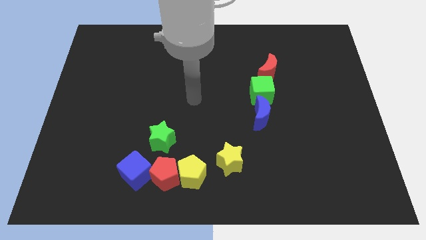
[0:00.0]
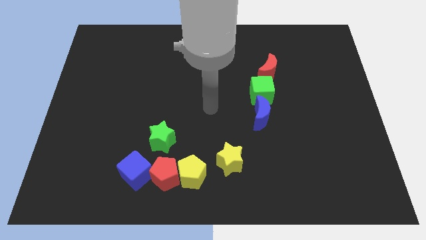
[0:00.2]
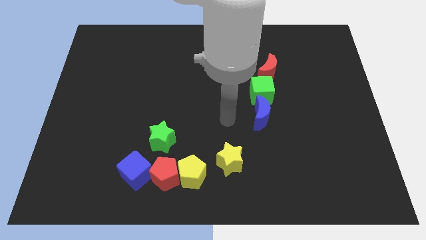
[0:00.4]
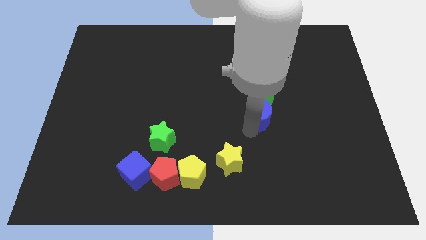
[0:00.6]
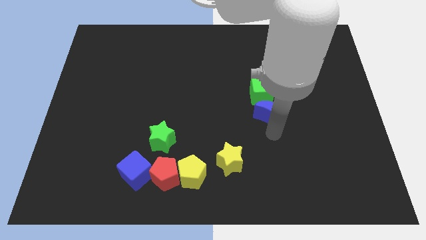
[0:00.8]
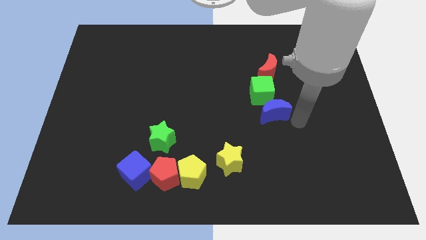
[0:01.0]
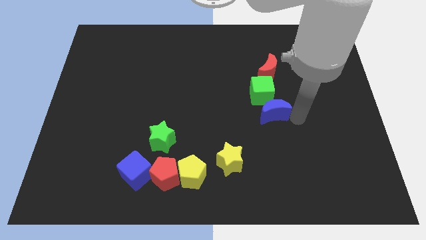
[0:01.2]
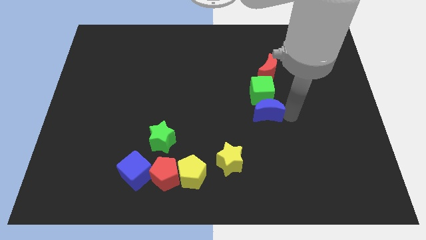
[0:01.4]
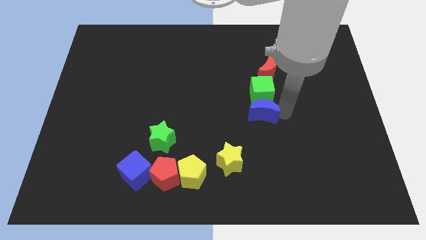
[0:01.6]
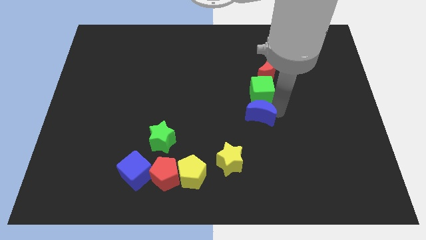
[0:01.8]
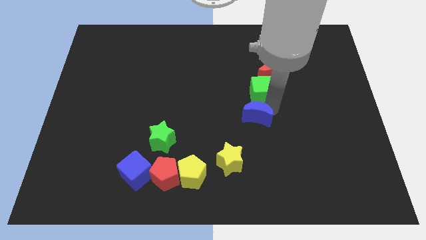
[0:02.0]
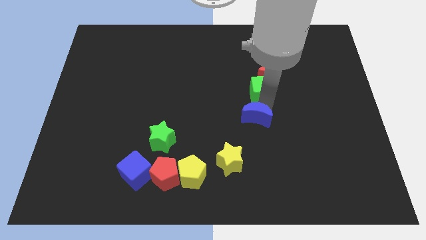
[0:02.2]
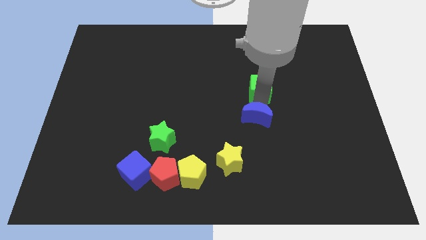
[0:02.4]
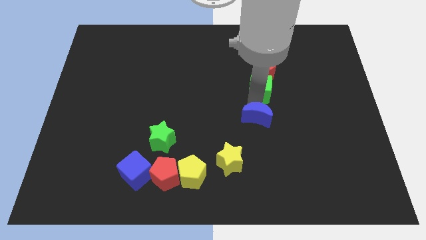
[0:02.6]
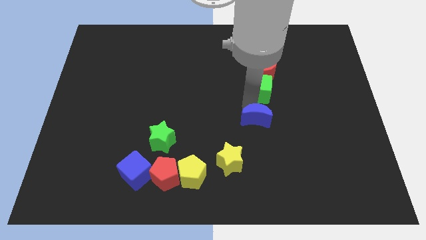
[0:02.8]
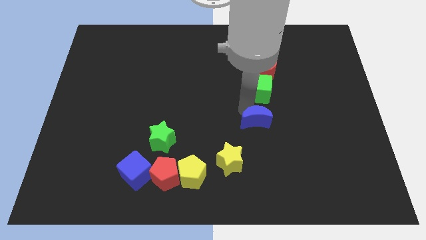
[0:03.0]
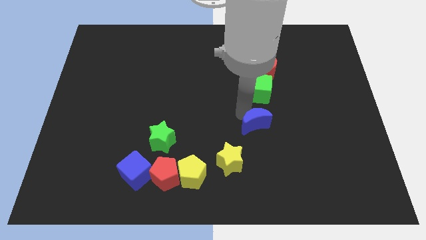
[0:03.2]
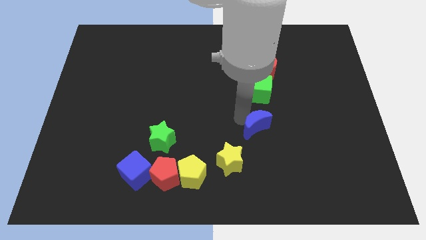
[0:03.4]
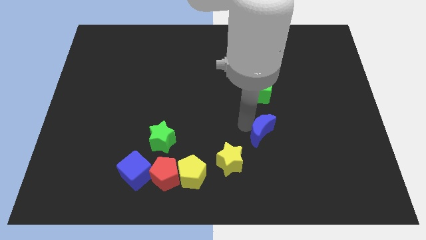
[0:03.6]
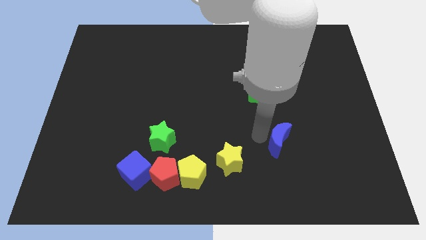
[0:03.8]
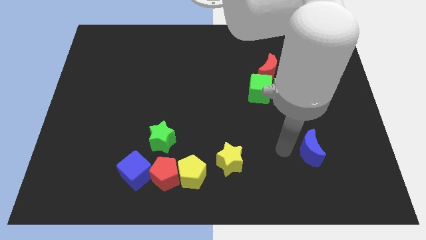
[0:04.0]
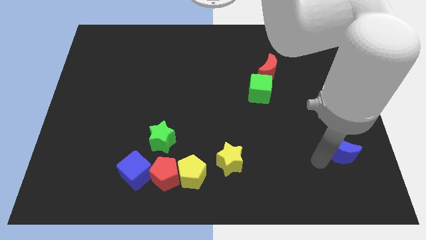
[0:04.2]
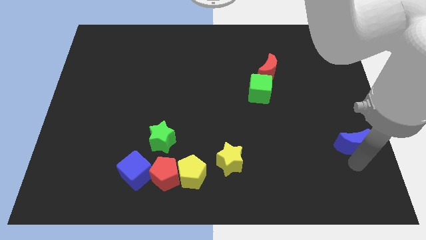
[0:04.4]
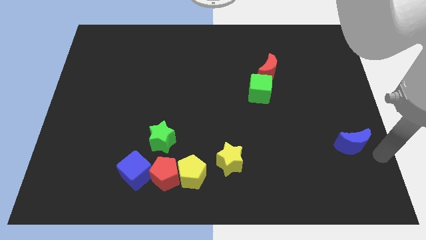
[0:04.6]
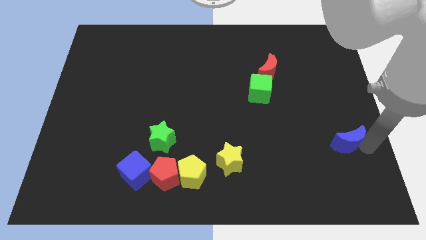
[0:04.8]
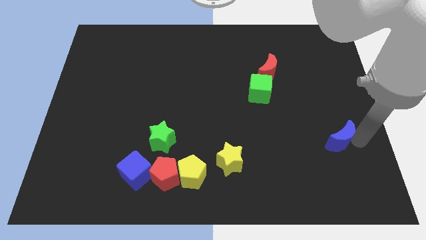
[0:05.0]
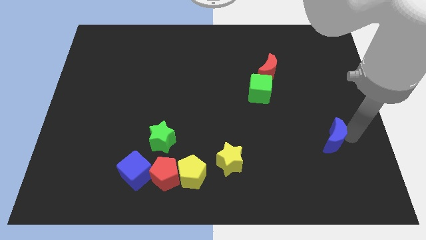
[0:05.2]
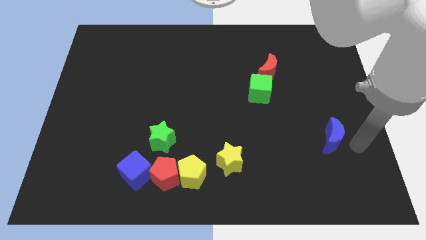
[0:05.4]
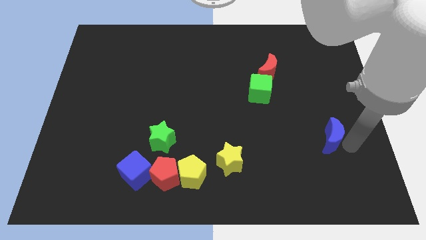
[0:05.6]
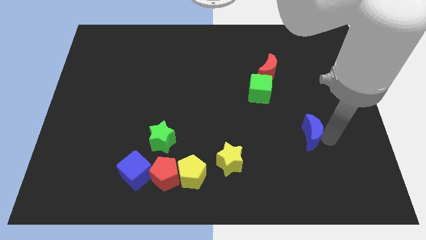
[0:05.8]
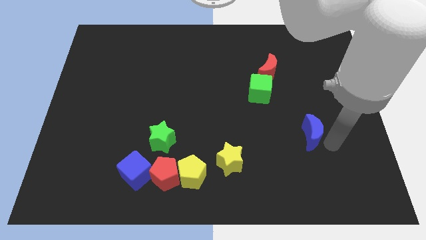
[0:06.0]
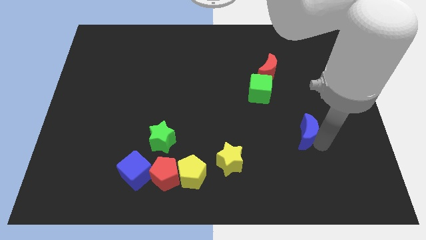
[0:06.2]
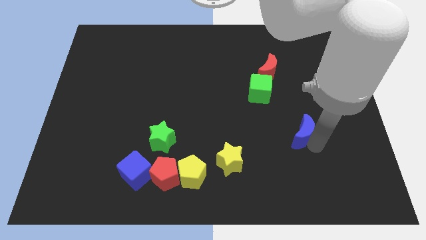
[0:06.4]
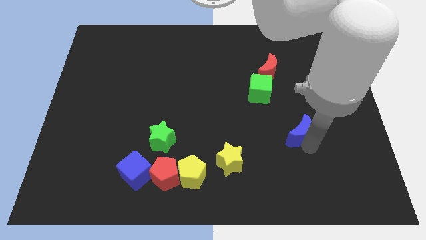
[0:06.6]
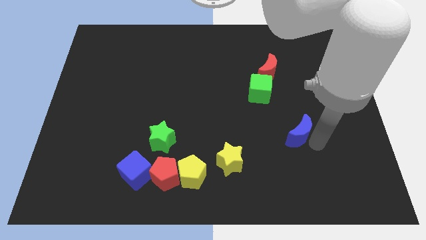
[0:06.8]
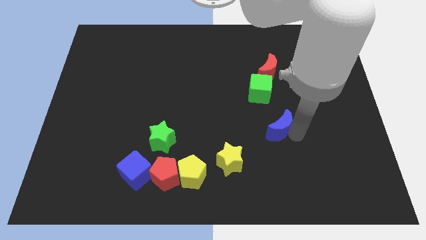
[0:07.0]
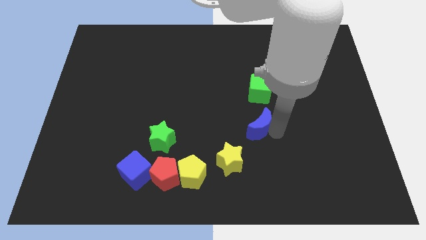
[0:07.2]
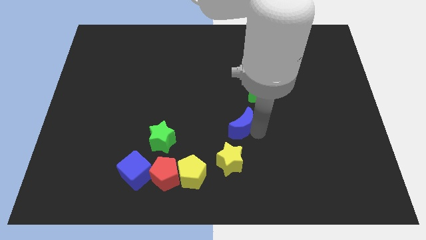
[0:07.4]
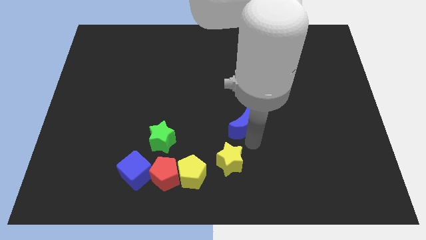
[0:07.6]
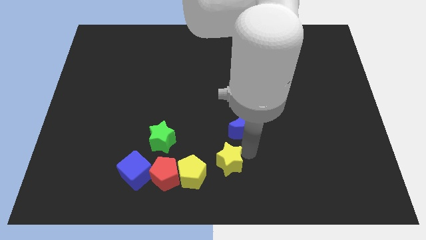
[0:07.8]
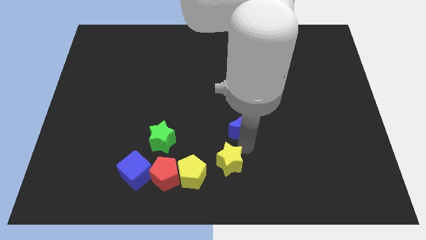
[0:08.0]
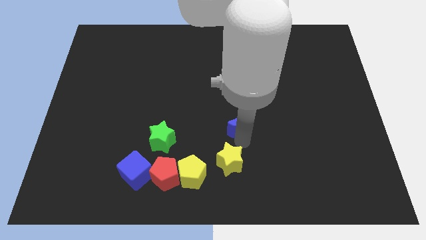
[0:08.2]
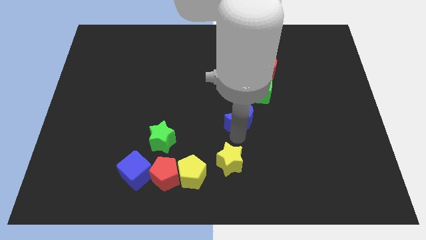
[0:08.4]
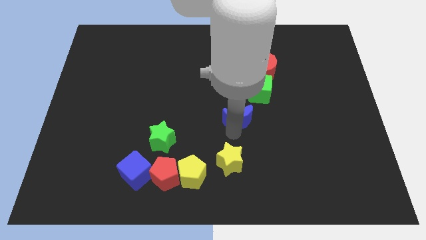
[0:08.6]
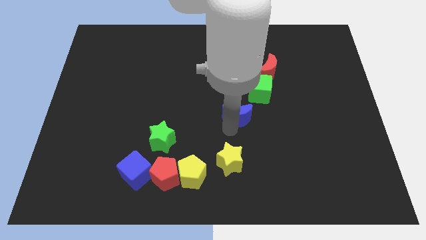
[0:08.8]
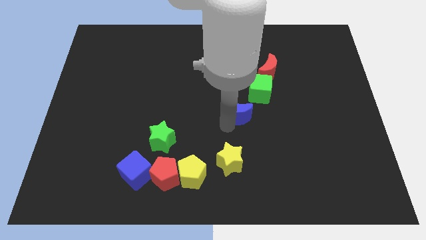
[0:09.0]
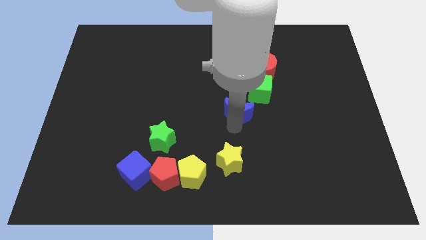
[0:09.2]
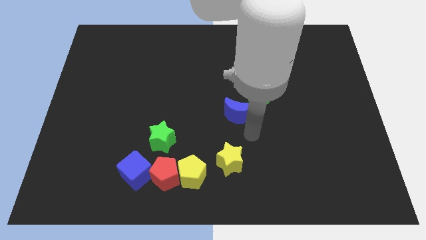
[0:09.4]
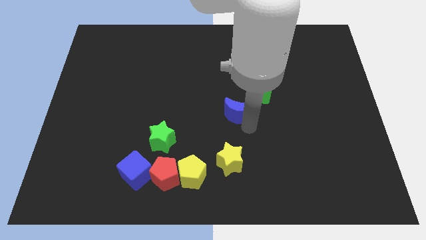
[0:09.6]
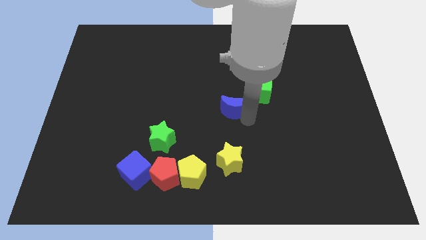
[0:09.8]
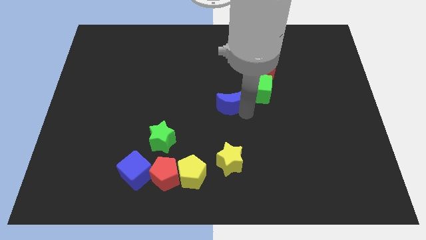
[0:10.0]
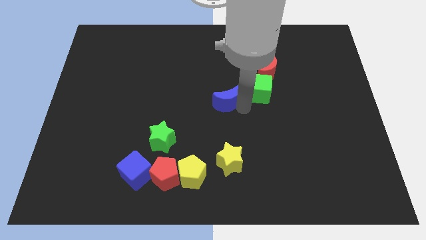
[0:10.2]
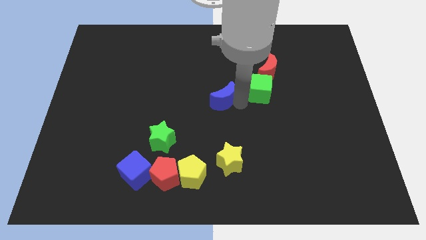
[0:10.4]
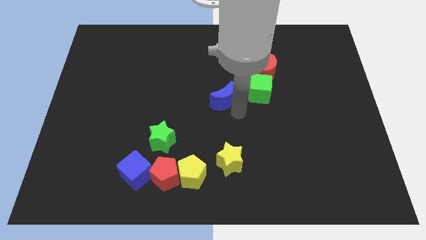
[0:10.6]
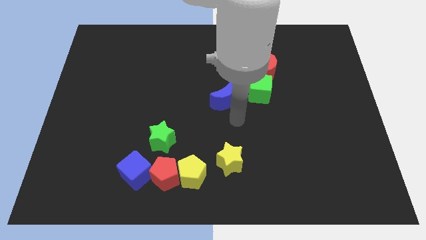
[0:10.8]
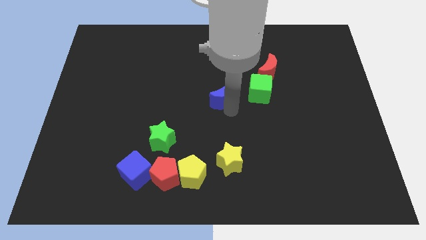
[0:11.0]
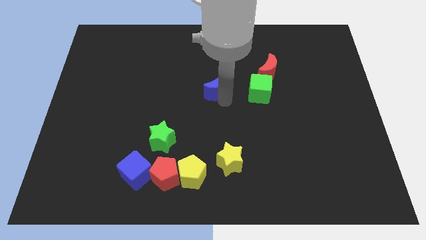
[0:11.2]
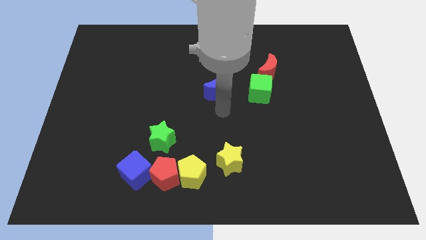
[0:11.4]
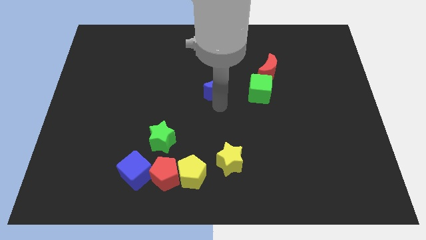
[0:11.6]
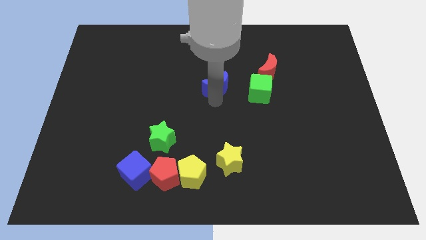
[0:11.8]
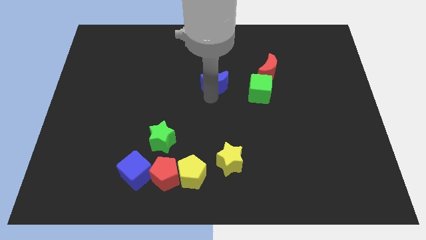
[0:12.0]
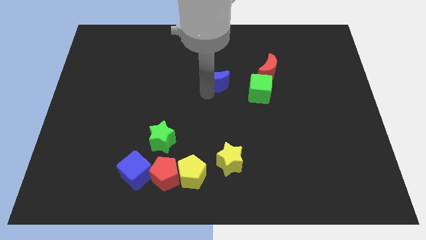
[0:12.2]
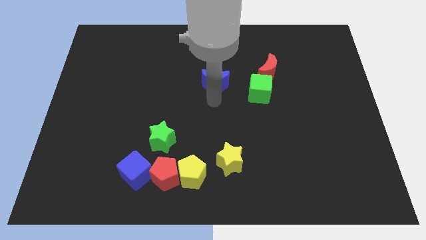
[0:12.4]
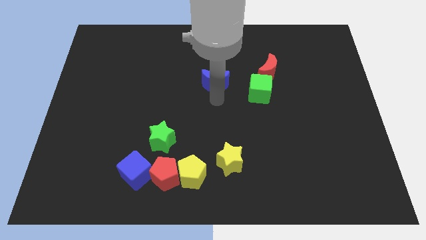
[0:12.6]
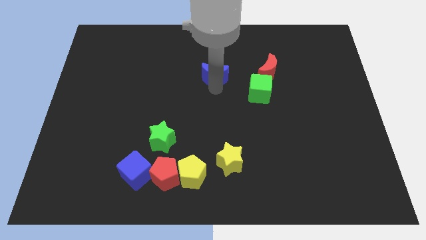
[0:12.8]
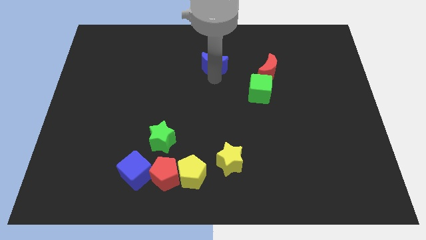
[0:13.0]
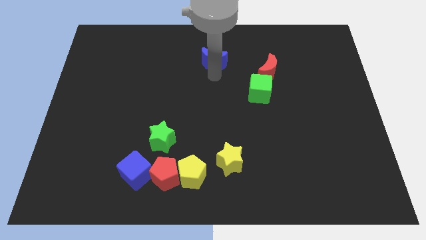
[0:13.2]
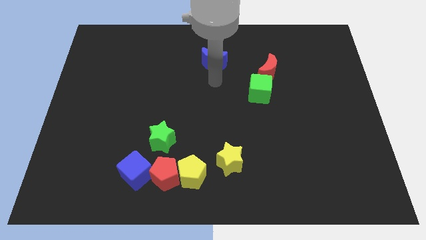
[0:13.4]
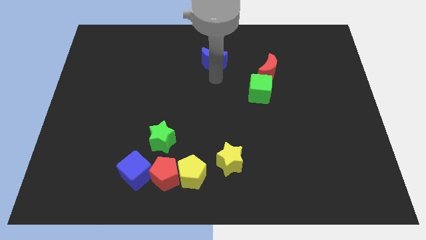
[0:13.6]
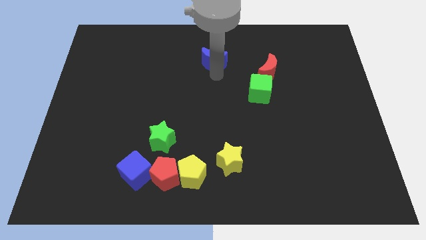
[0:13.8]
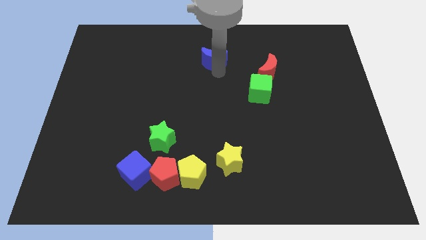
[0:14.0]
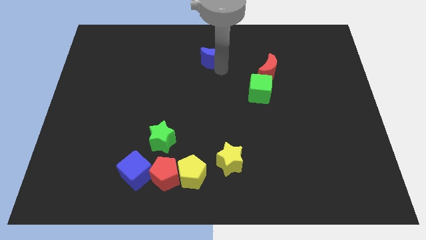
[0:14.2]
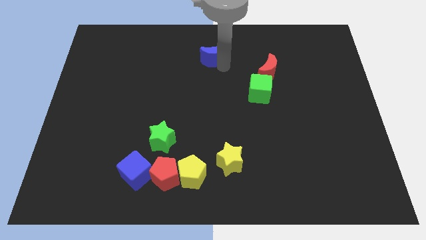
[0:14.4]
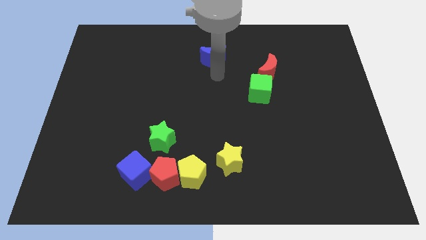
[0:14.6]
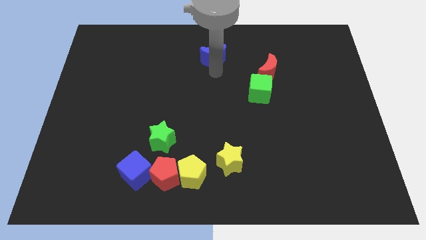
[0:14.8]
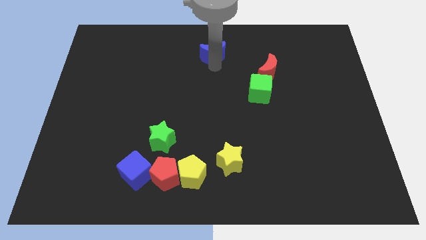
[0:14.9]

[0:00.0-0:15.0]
push the blue moon to the top
